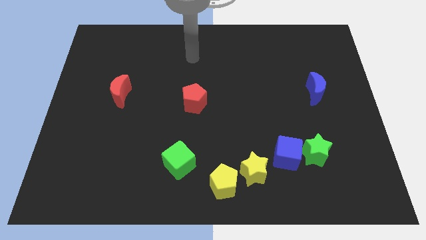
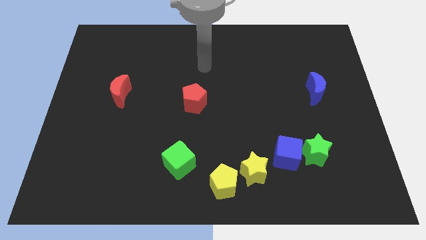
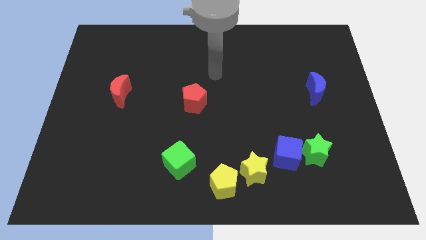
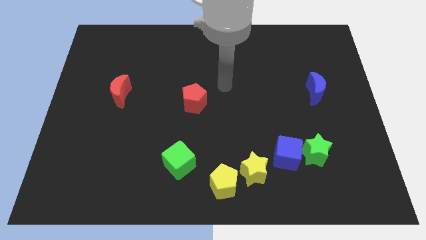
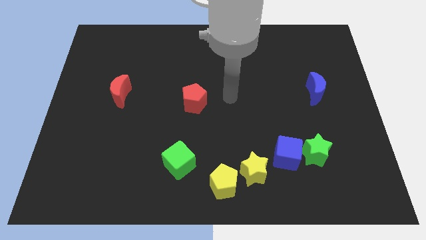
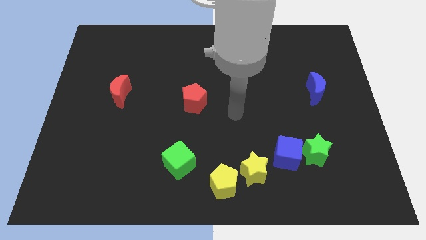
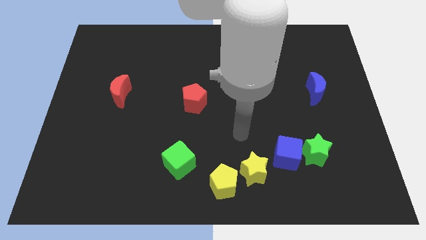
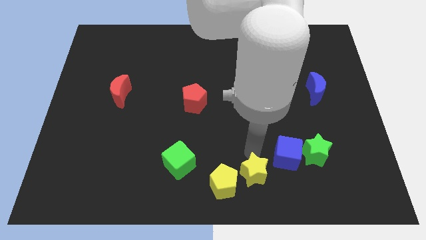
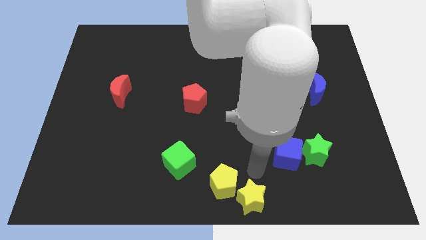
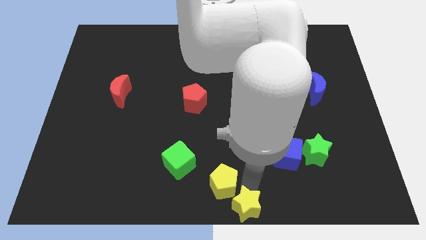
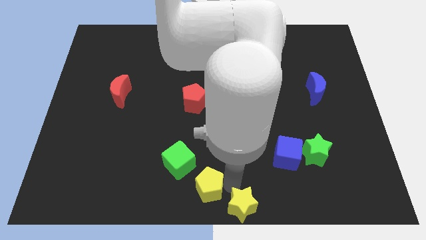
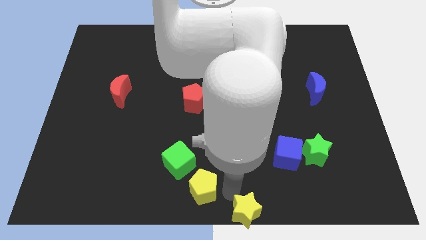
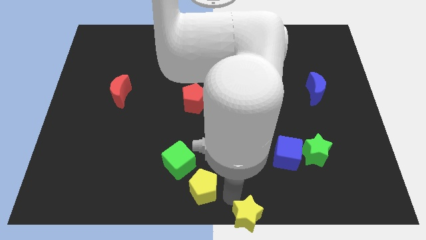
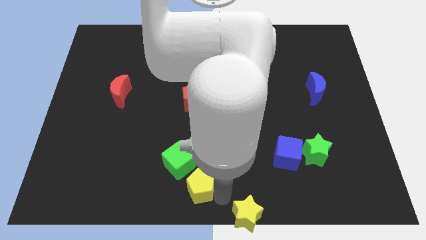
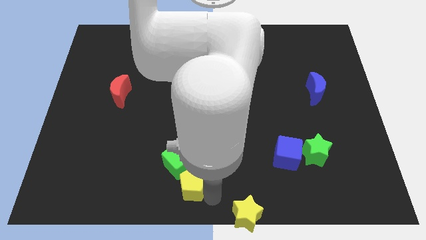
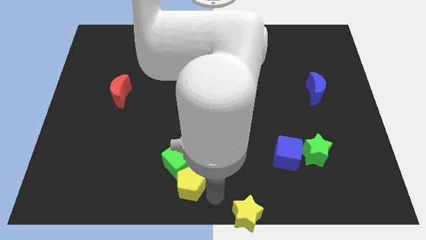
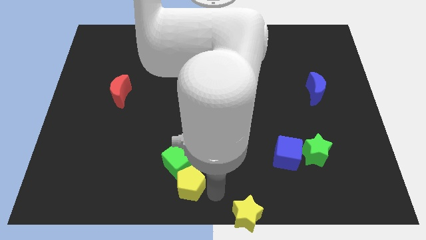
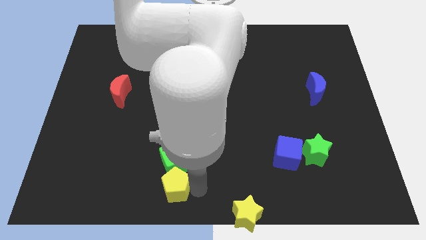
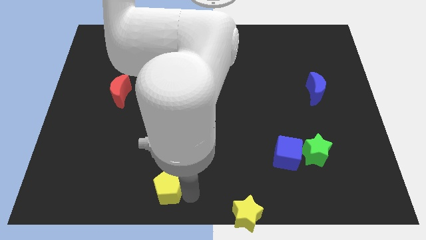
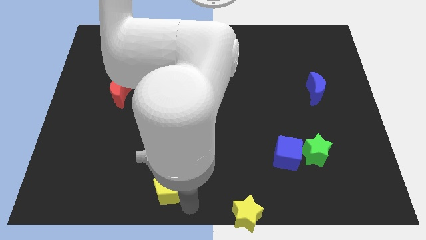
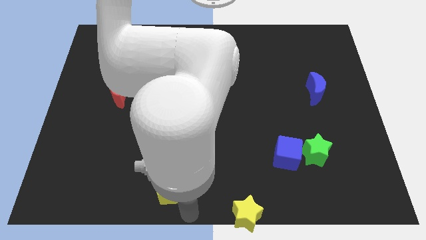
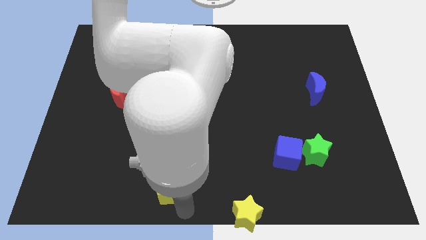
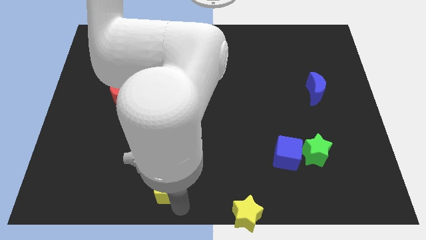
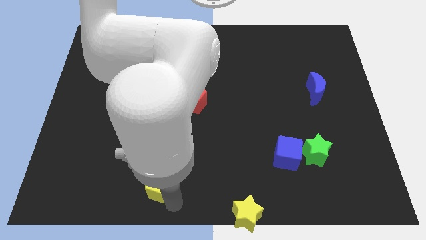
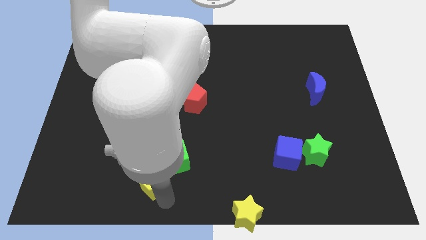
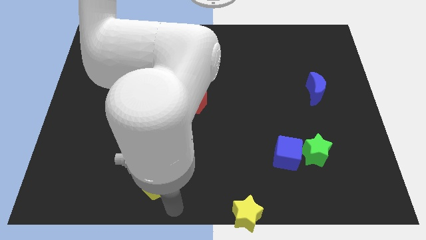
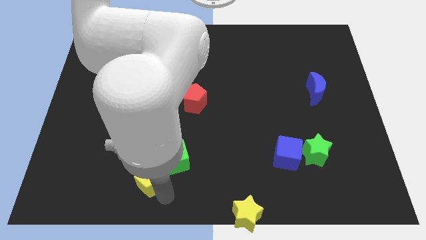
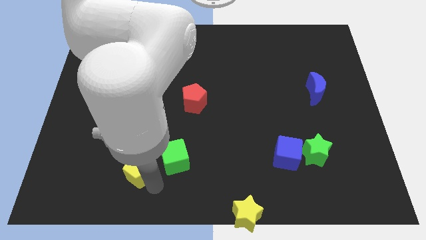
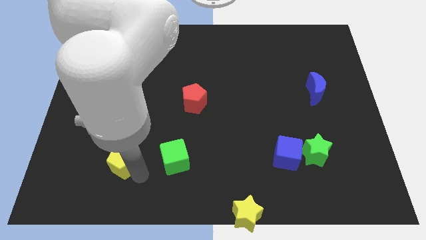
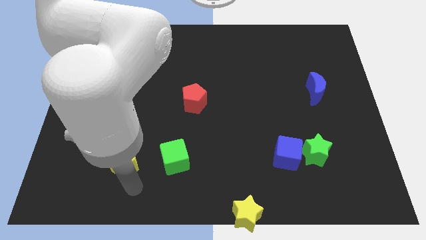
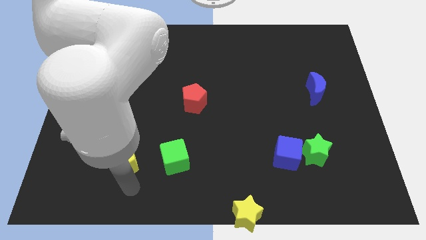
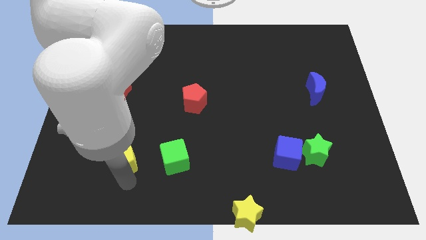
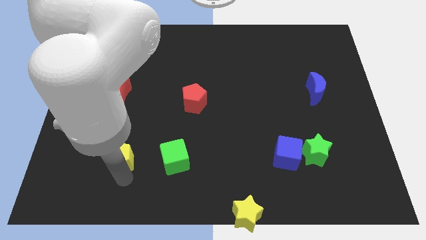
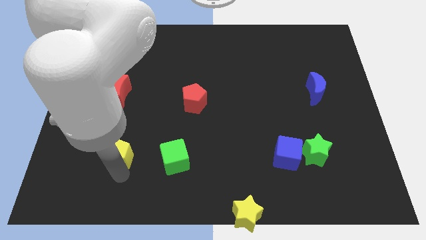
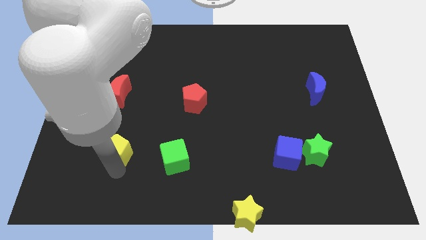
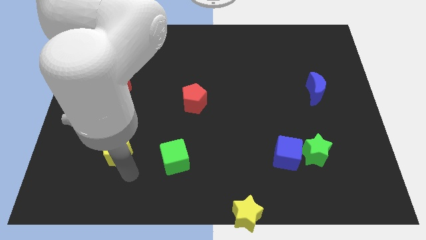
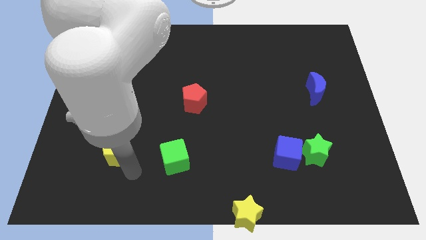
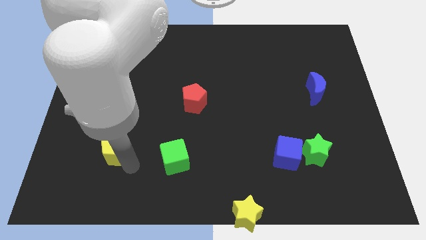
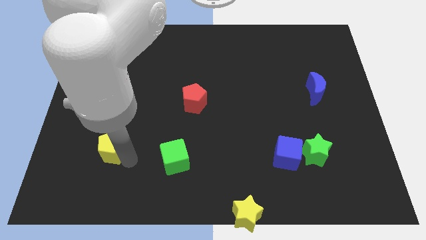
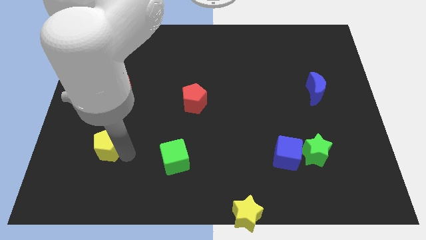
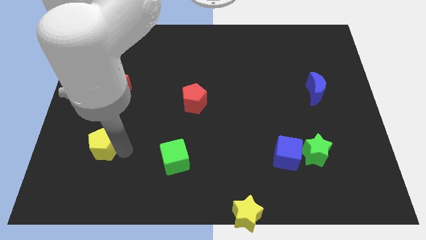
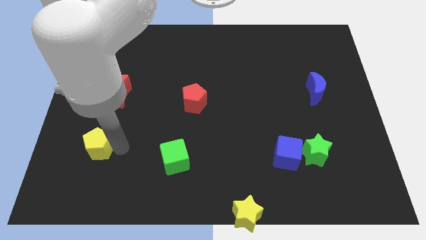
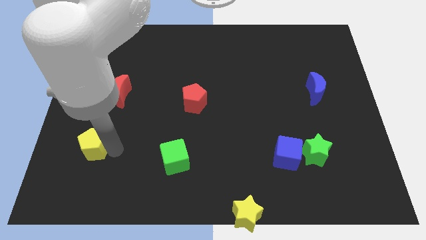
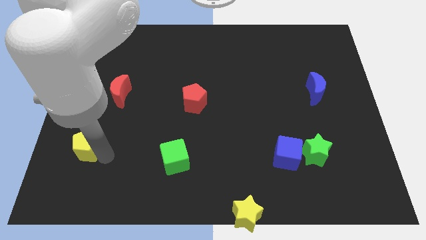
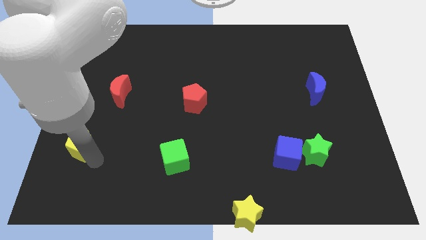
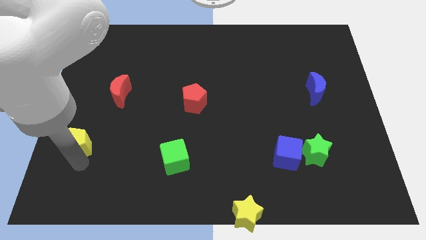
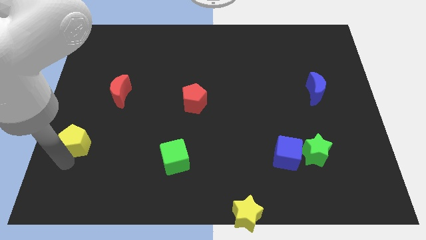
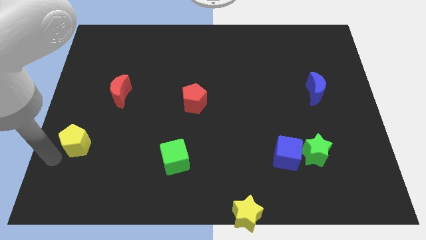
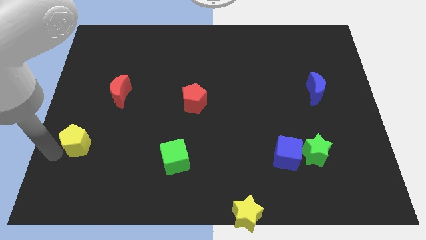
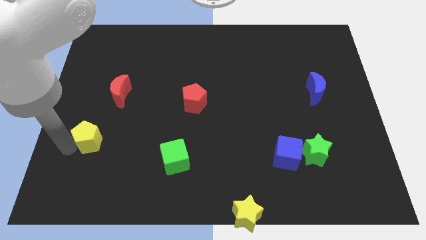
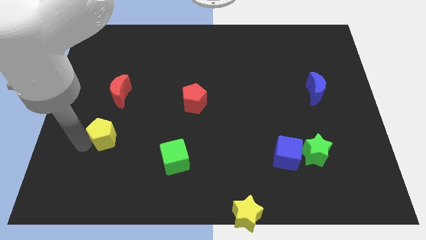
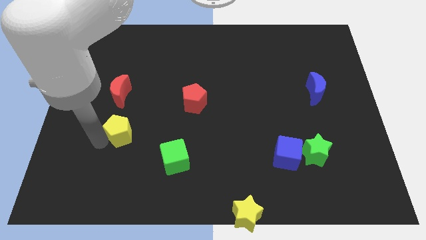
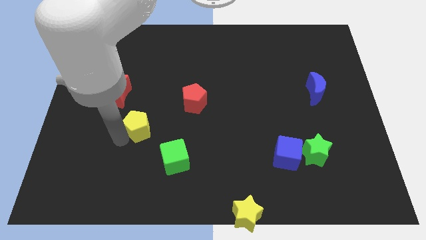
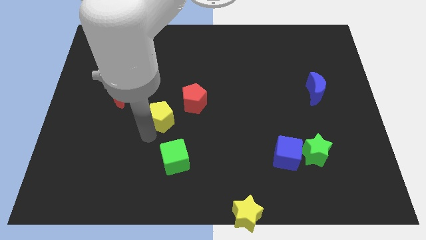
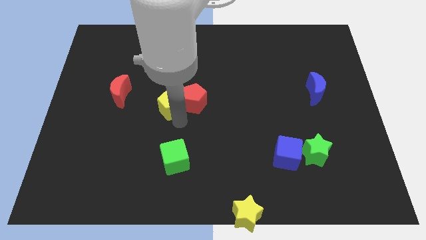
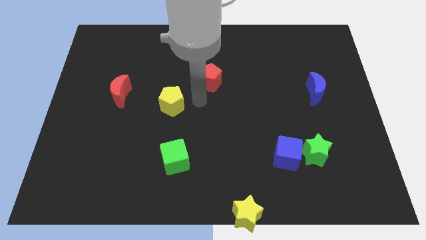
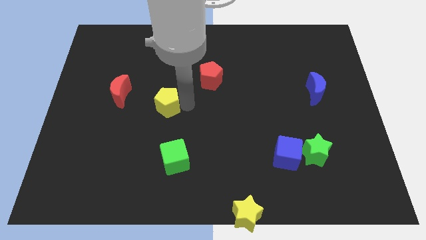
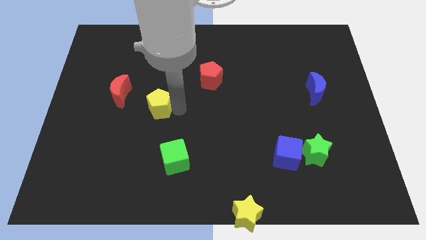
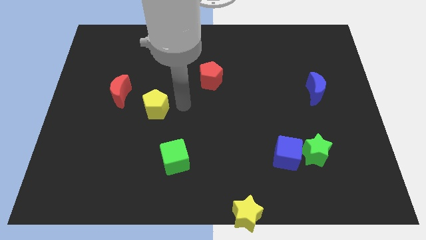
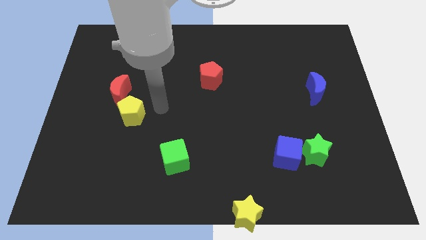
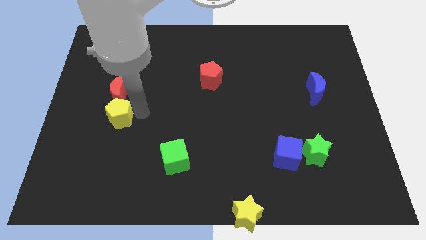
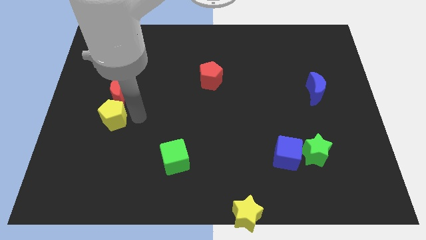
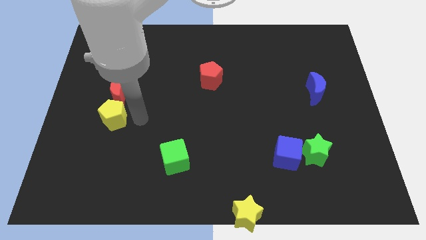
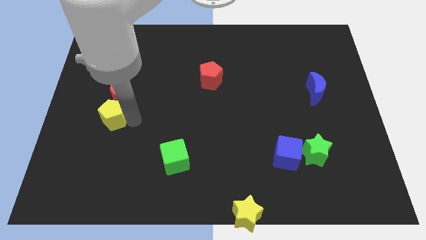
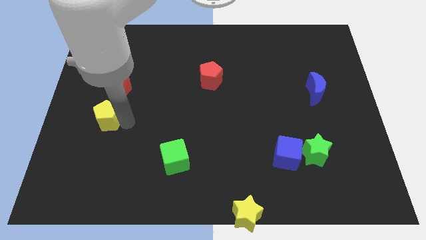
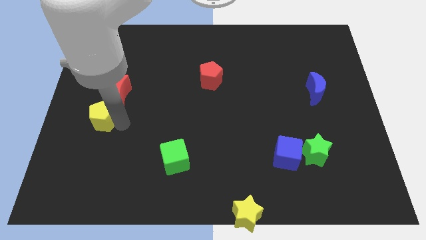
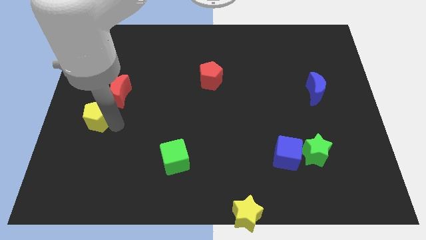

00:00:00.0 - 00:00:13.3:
push the yellow pentagon to the center left

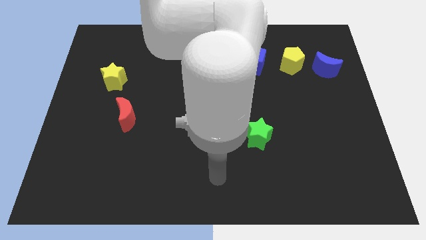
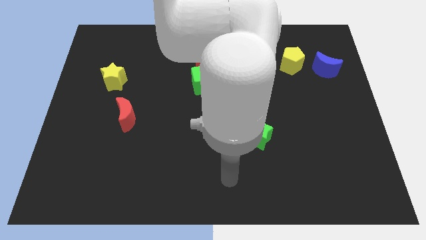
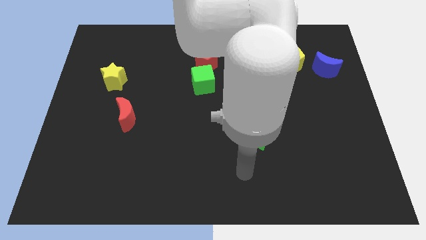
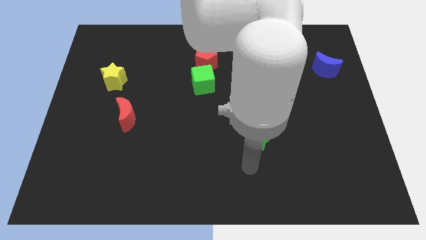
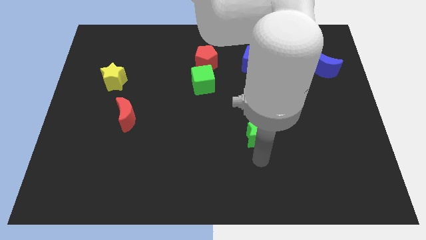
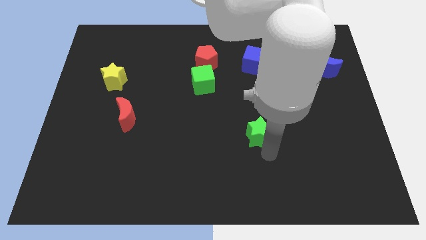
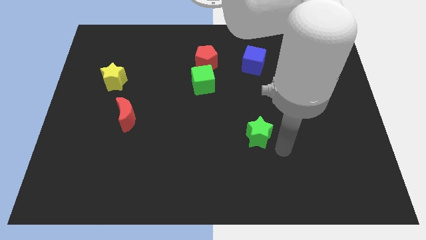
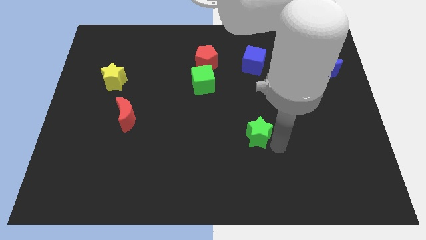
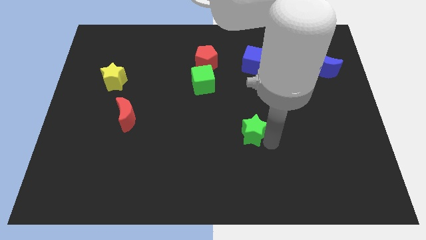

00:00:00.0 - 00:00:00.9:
slide the green star to the center
